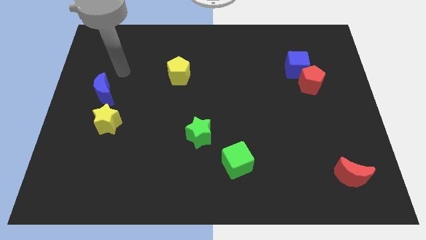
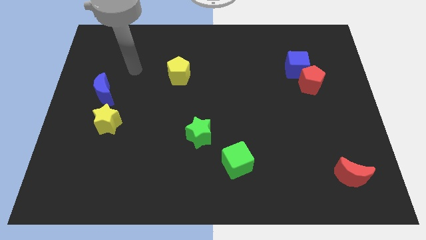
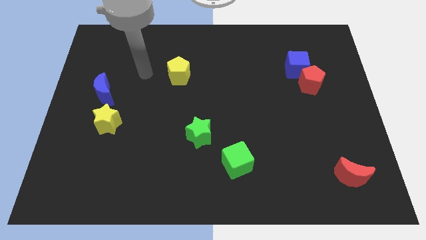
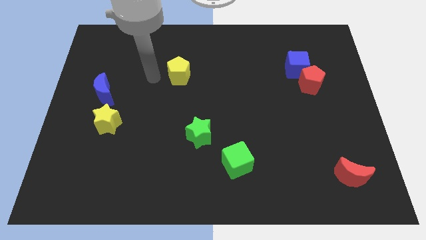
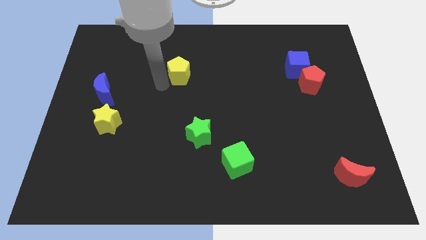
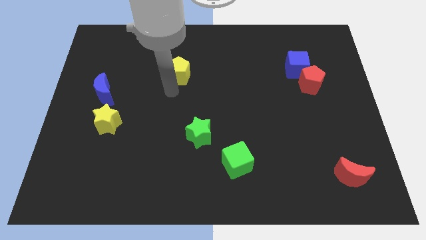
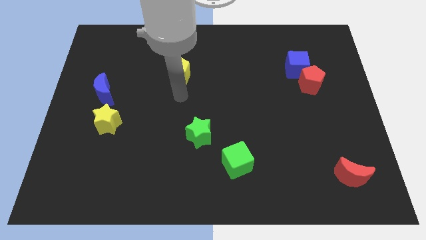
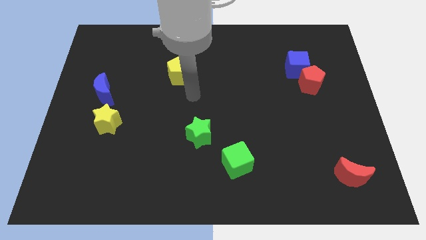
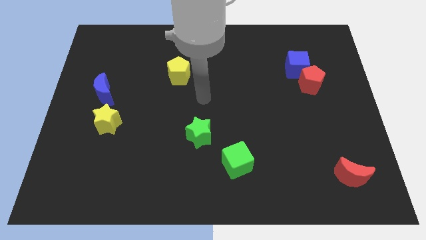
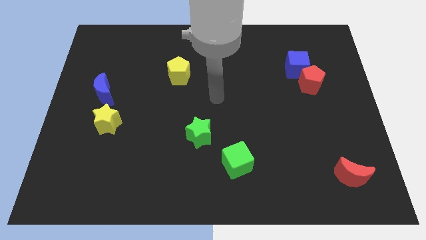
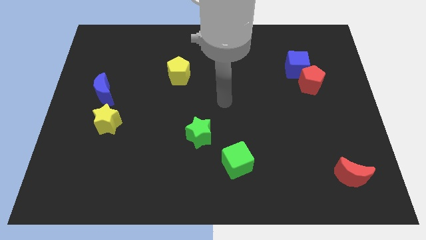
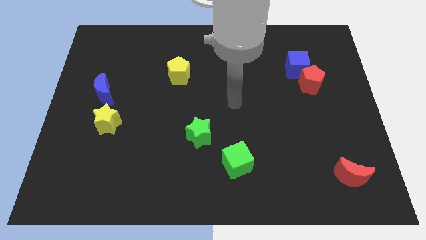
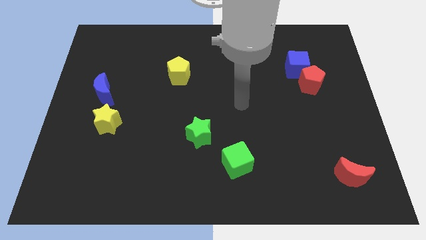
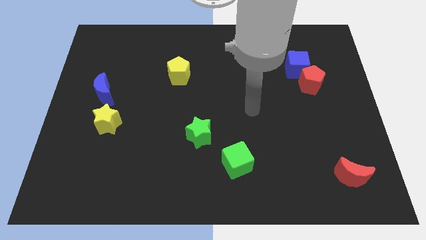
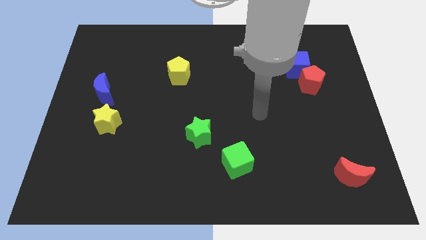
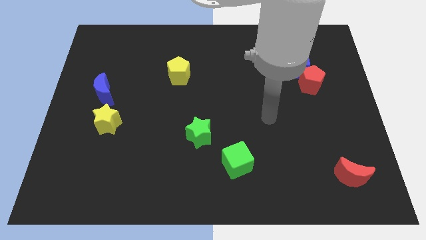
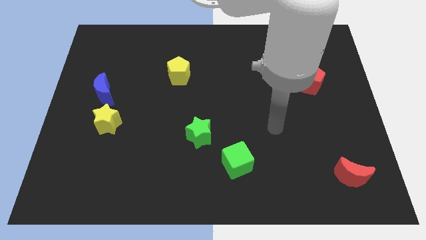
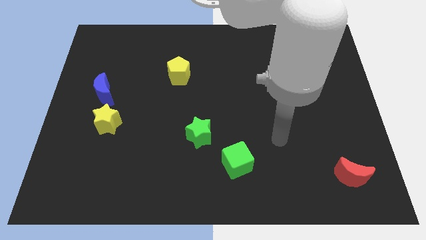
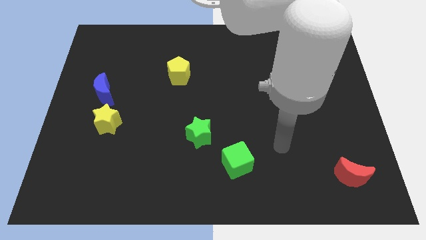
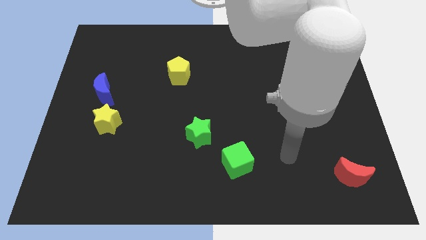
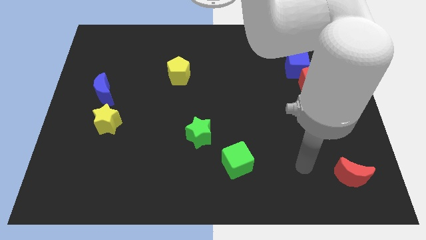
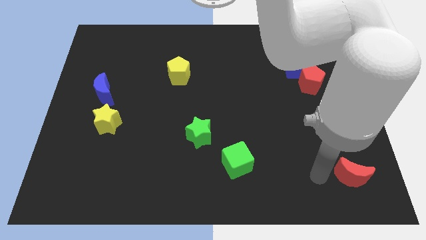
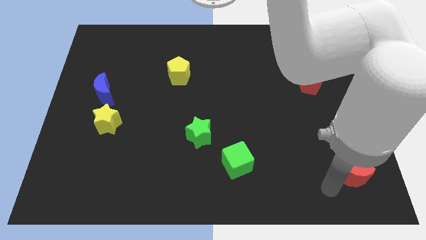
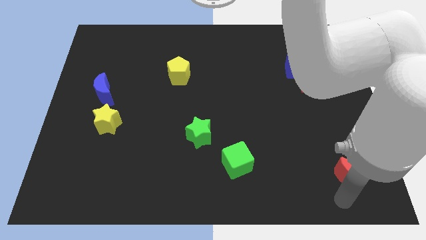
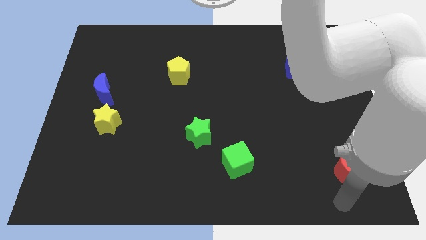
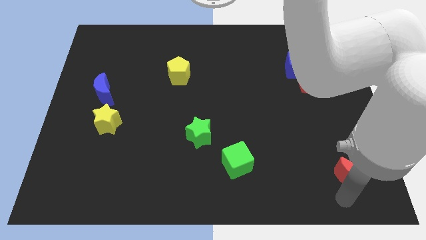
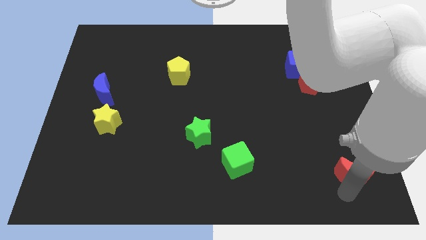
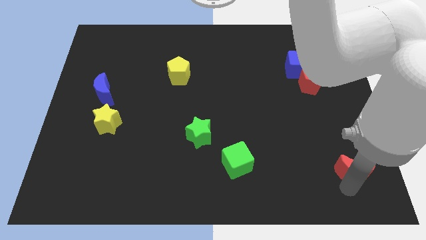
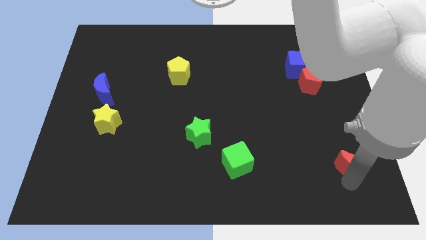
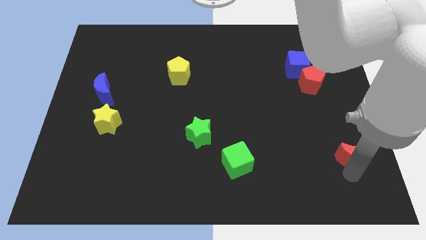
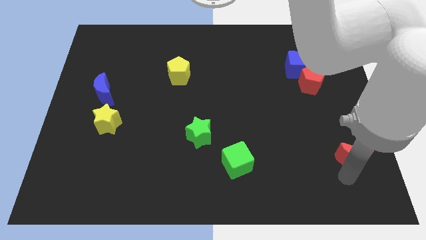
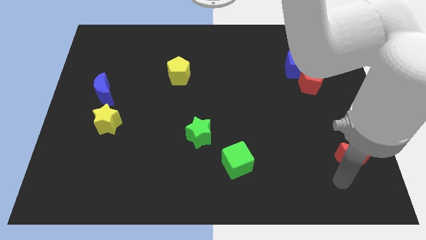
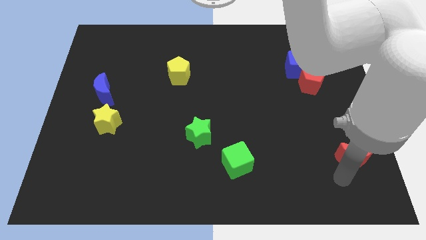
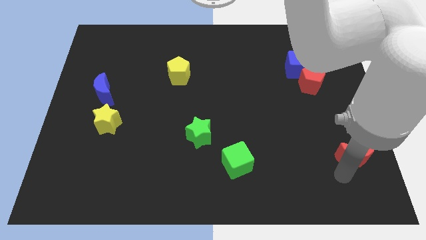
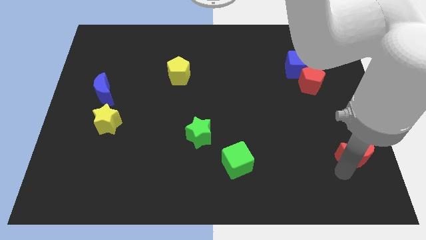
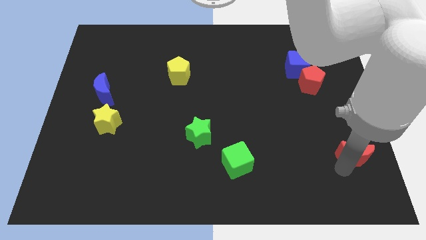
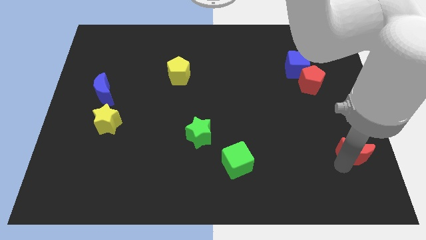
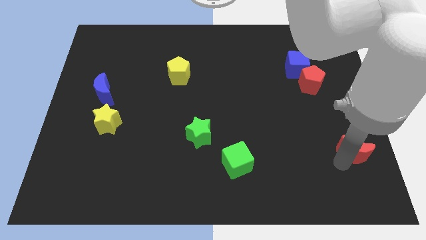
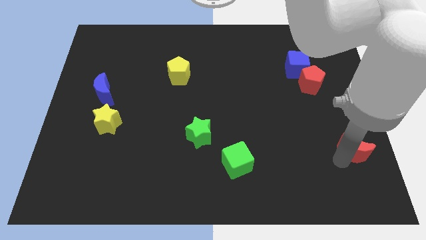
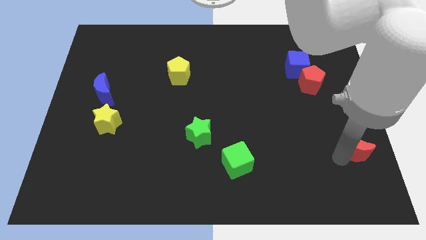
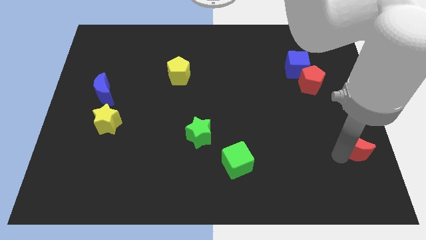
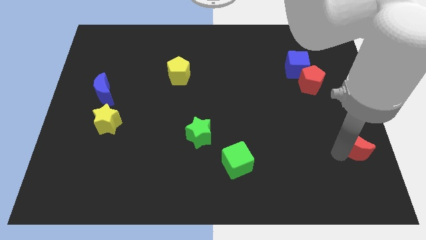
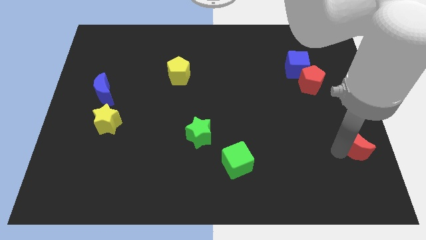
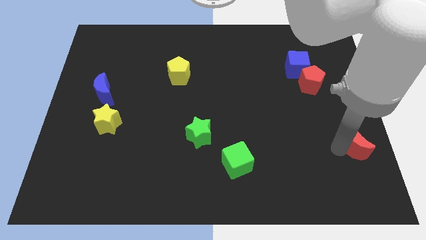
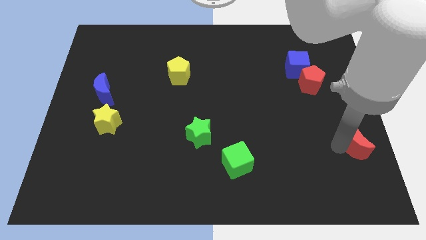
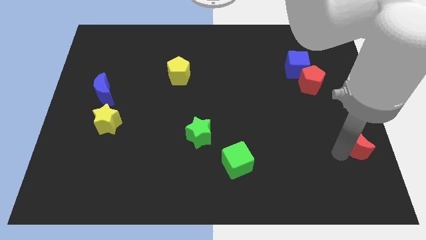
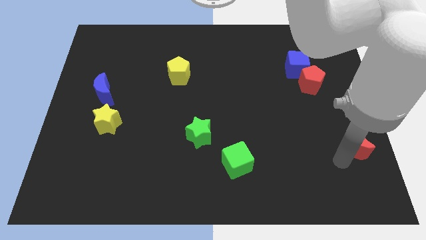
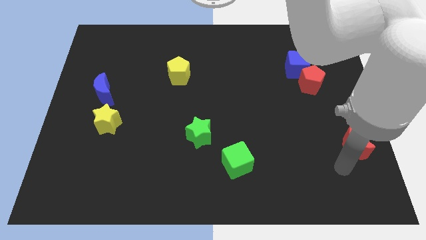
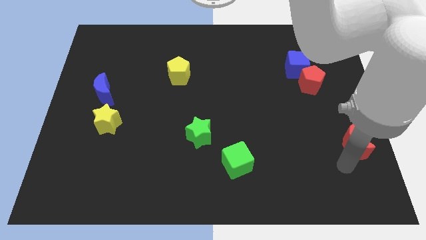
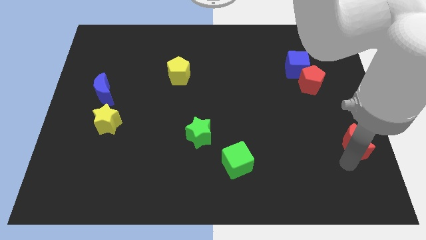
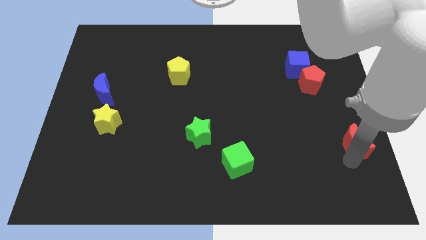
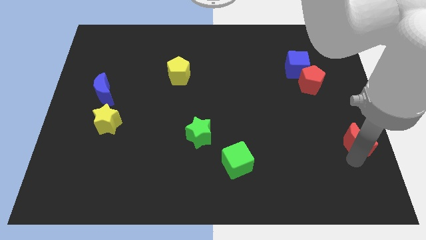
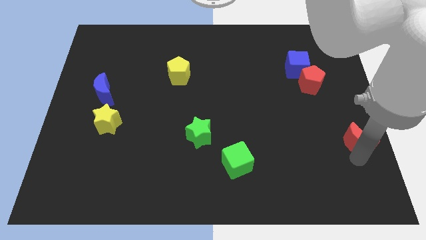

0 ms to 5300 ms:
move the red moon to the center right

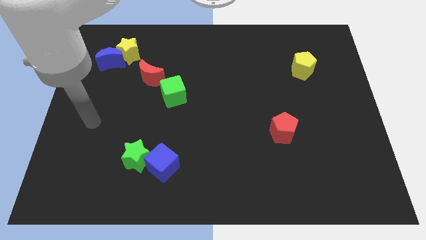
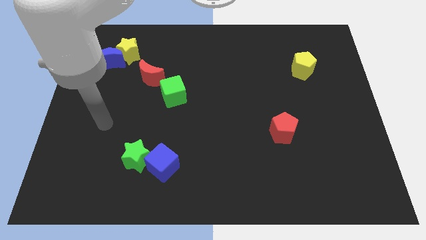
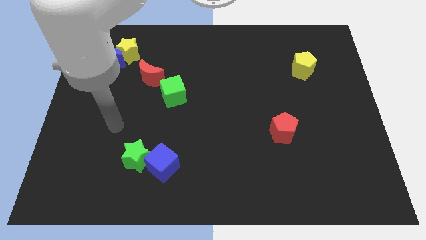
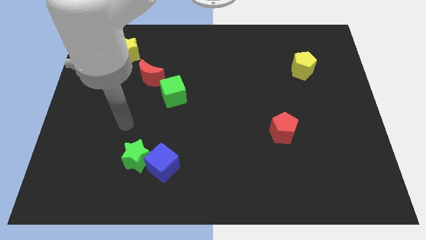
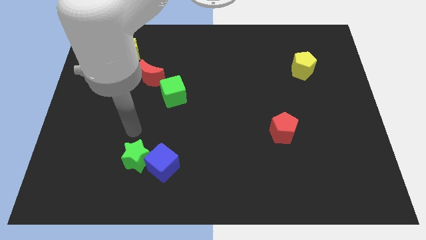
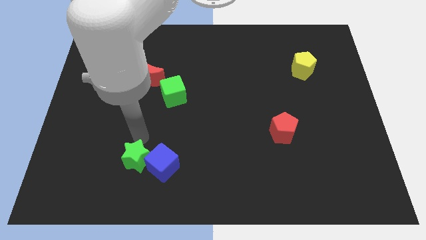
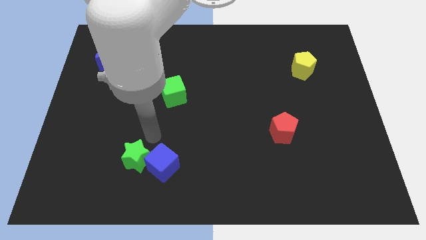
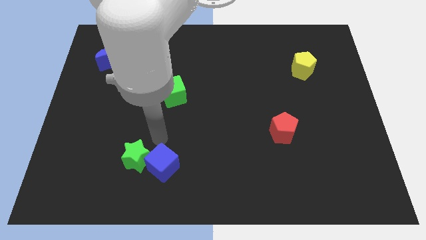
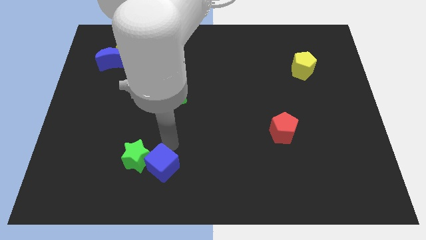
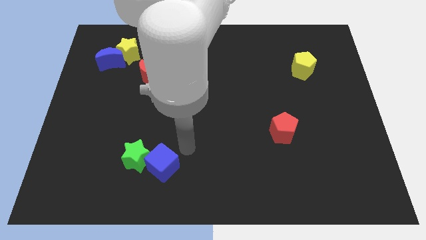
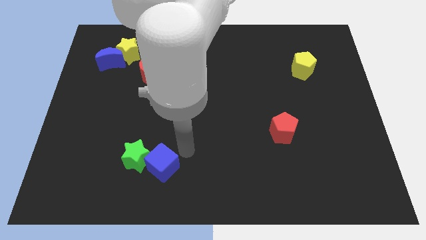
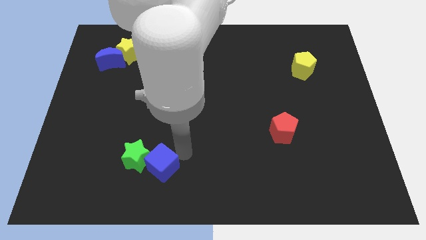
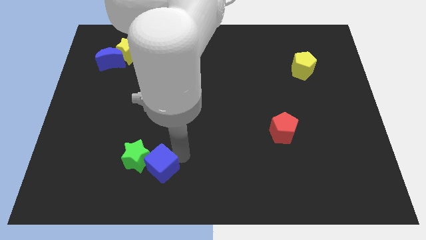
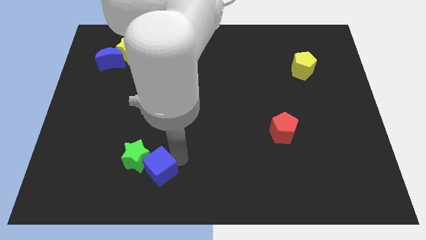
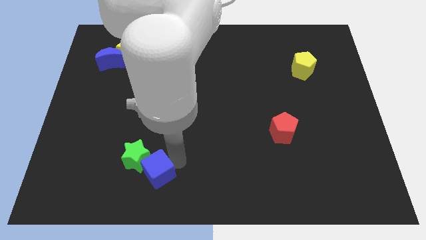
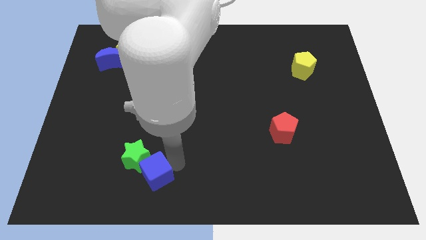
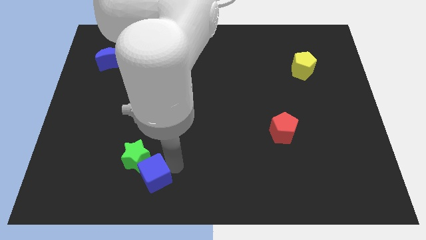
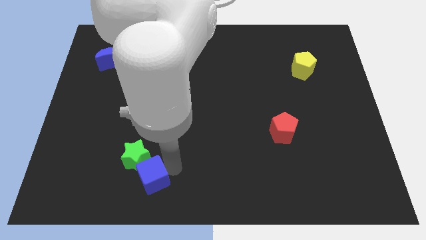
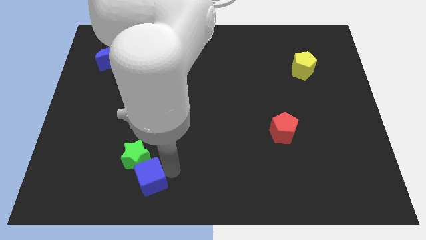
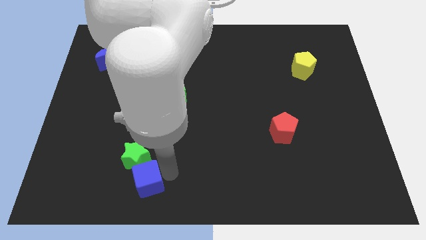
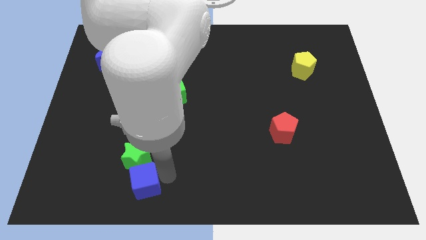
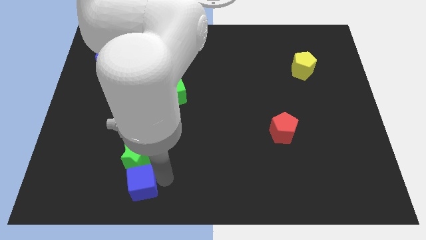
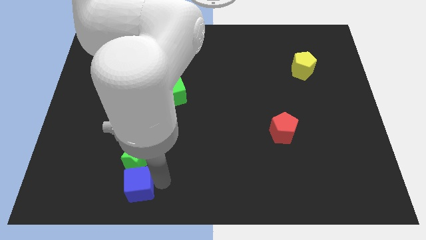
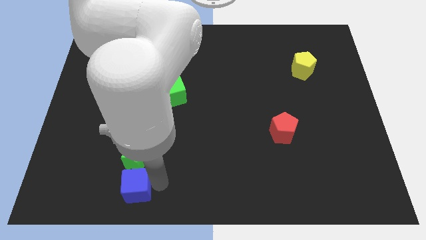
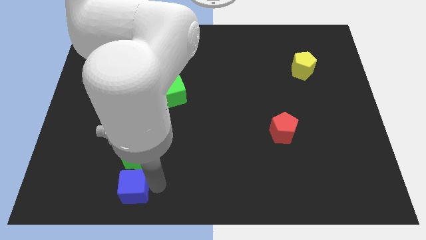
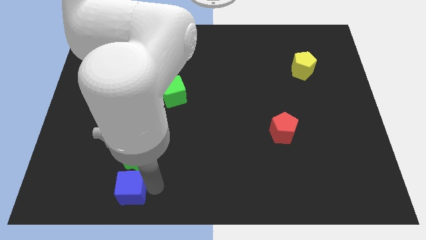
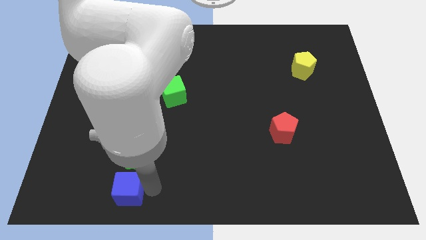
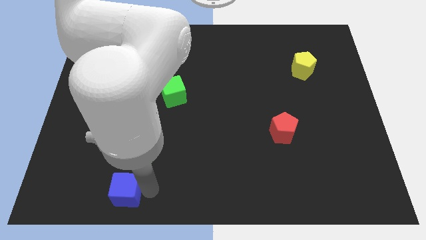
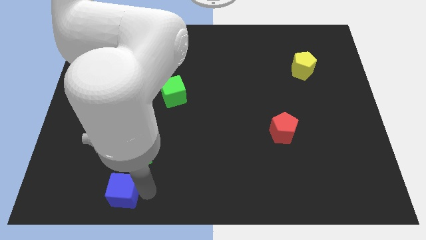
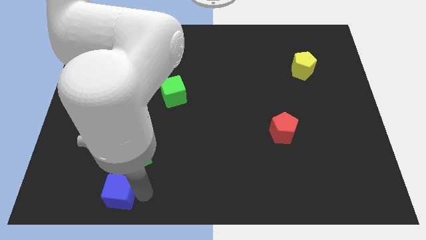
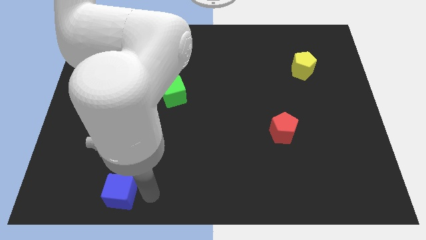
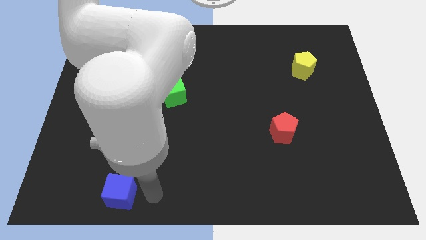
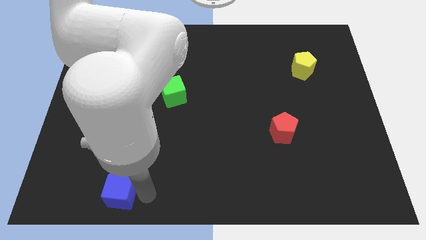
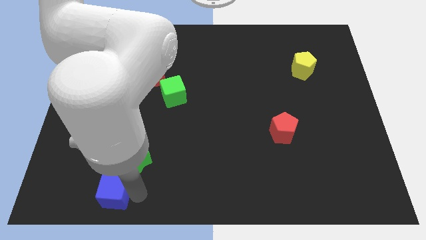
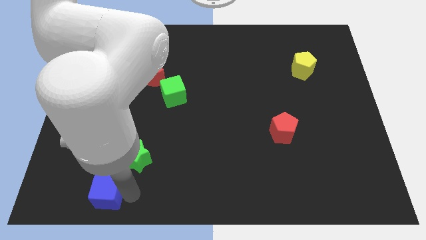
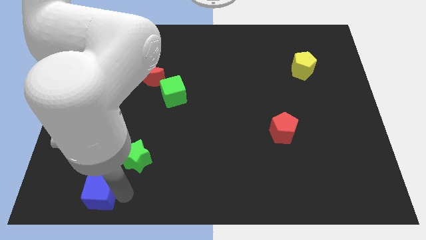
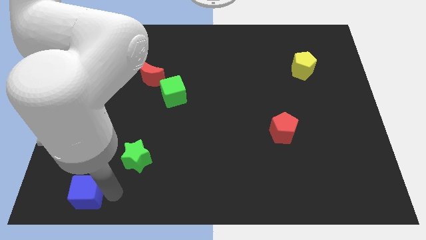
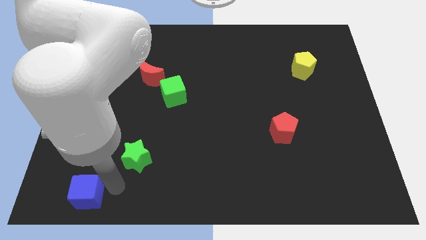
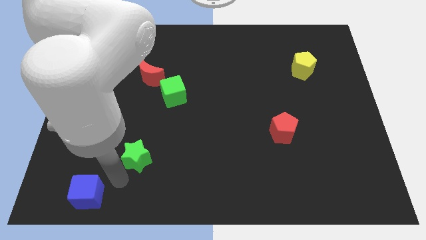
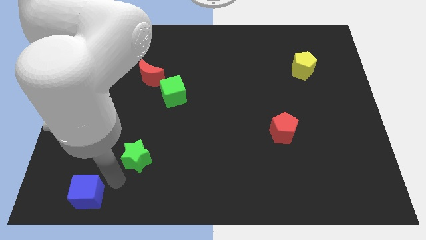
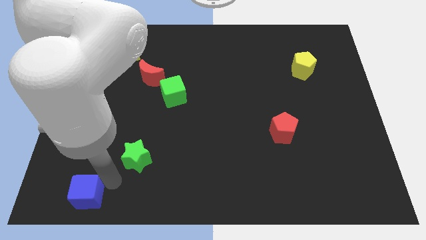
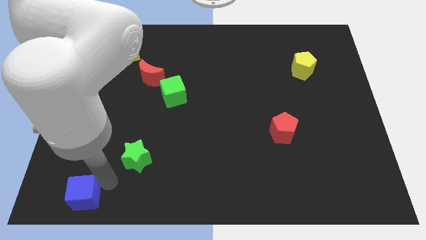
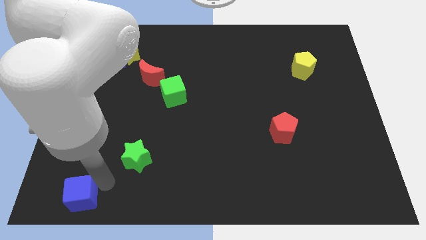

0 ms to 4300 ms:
slide the blue cube to the bottom left corner
